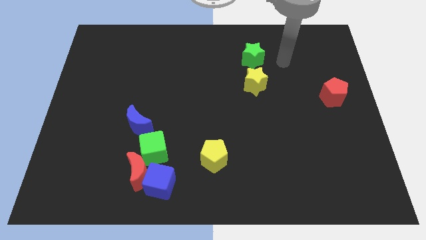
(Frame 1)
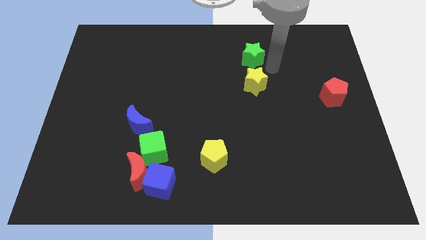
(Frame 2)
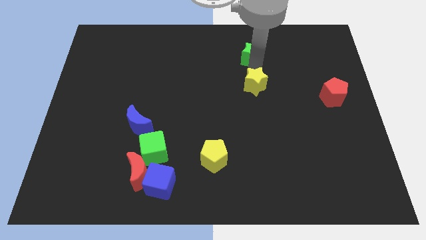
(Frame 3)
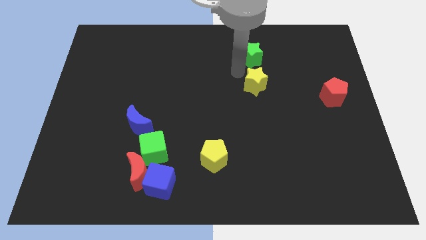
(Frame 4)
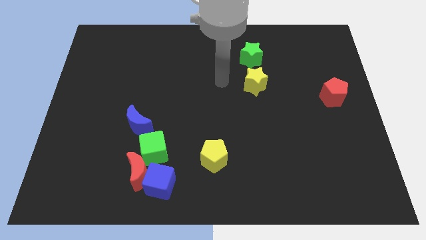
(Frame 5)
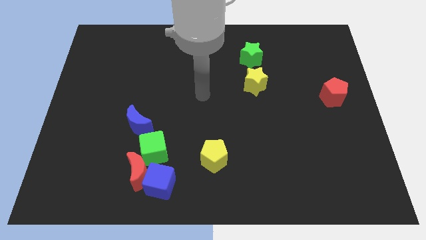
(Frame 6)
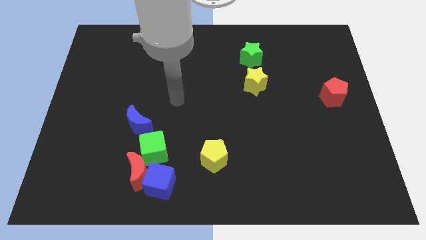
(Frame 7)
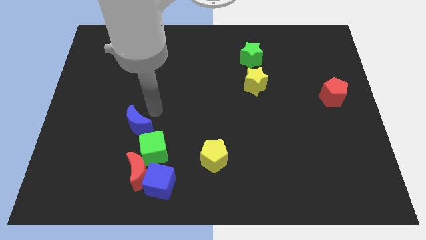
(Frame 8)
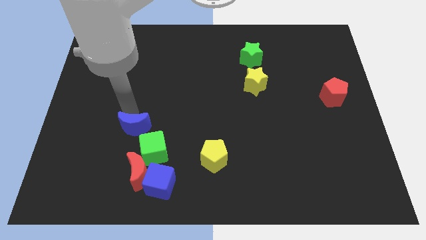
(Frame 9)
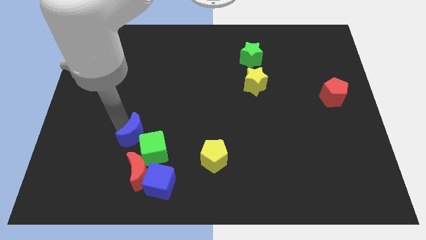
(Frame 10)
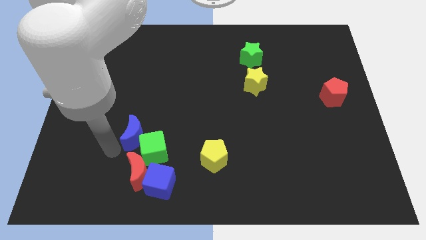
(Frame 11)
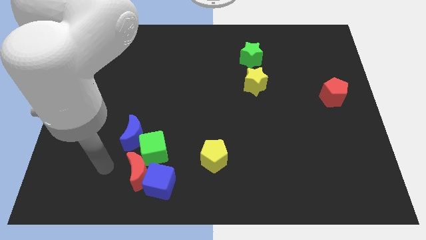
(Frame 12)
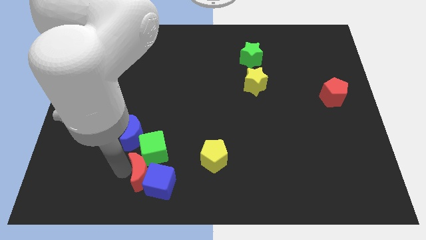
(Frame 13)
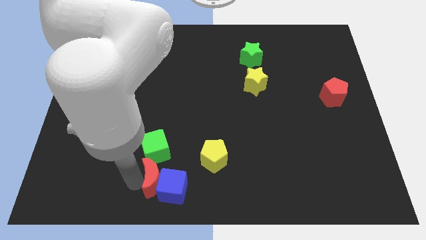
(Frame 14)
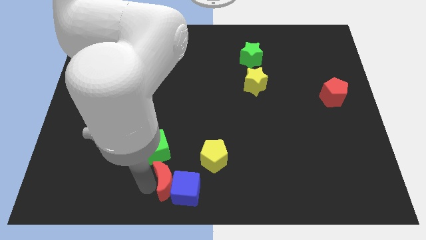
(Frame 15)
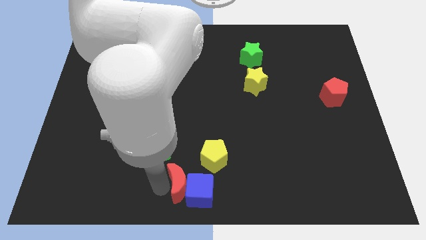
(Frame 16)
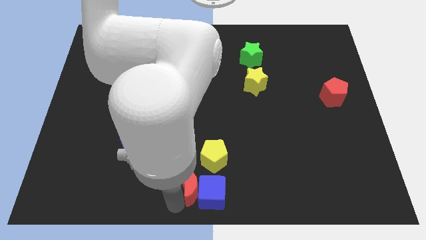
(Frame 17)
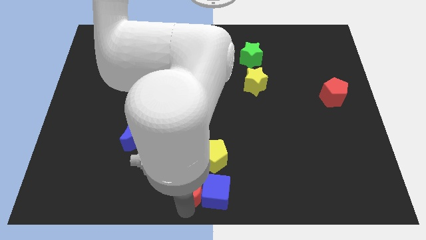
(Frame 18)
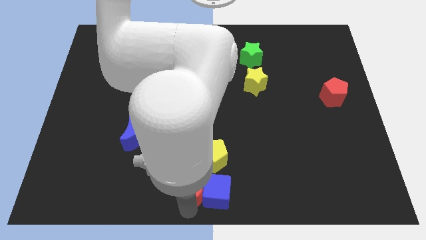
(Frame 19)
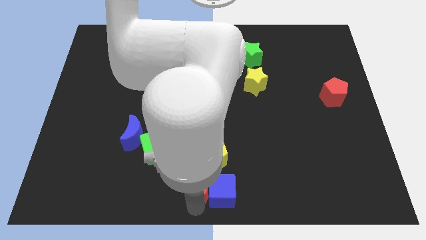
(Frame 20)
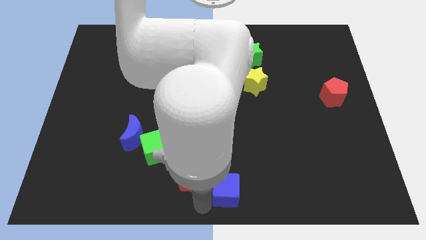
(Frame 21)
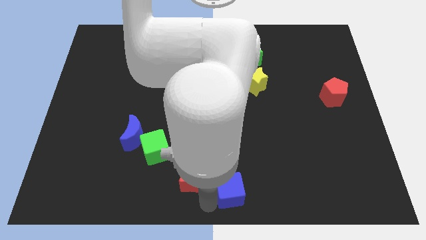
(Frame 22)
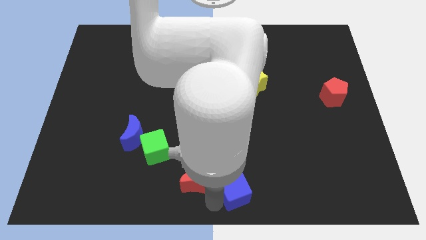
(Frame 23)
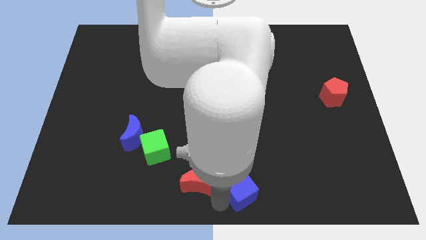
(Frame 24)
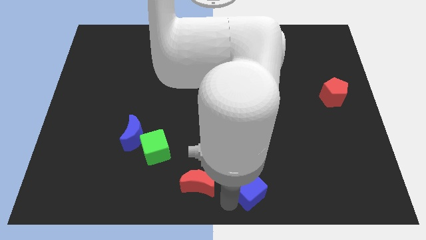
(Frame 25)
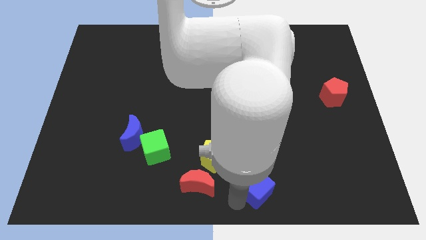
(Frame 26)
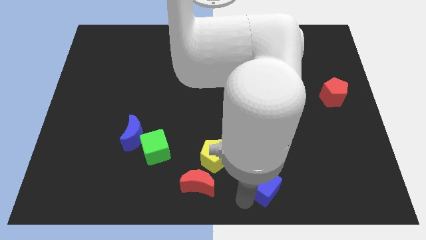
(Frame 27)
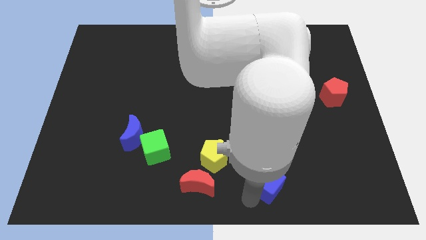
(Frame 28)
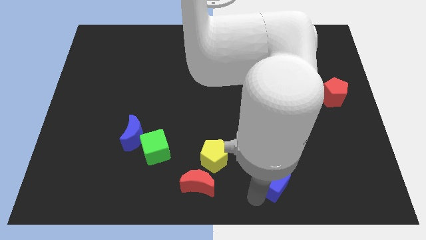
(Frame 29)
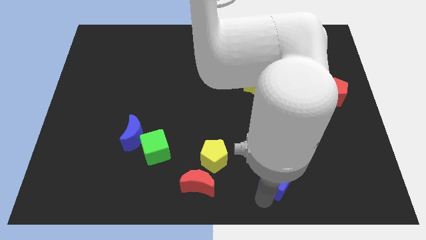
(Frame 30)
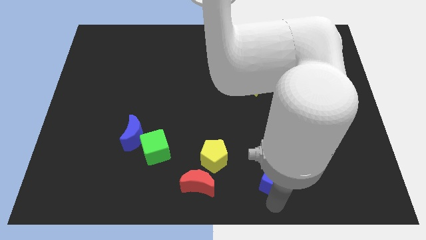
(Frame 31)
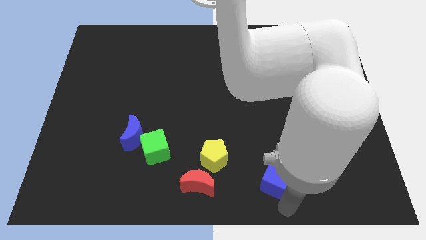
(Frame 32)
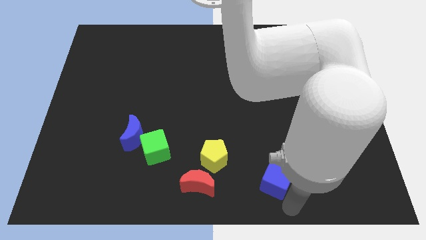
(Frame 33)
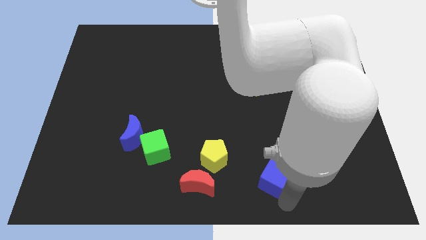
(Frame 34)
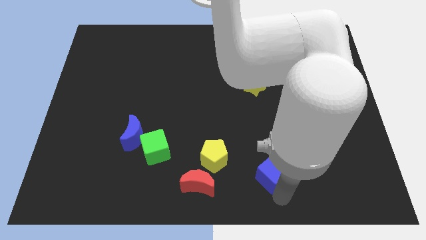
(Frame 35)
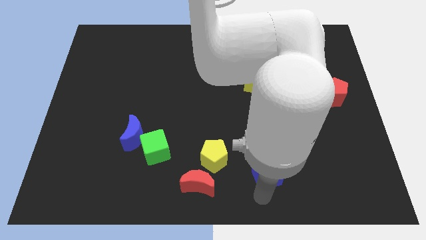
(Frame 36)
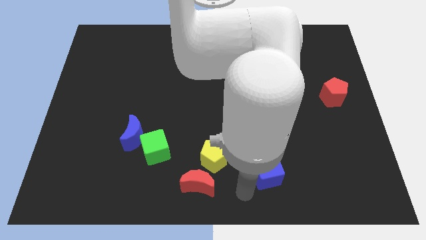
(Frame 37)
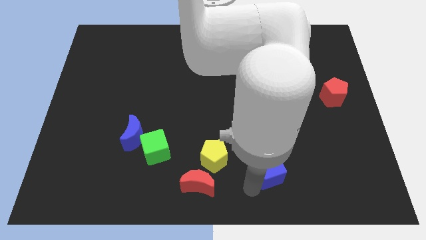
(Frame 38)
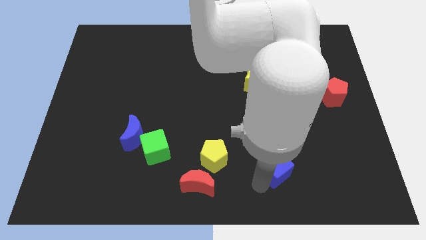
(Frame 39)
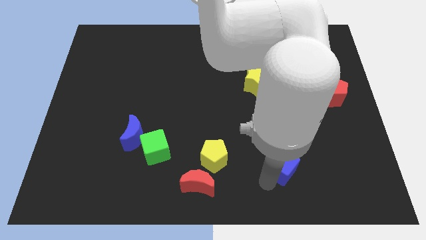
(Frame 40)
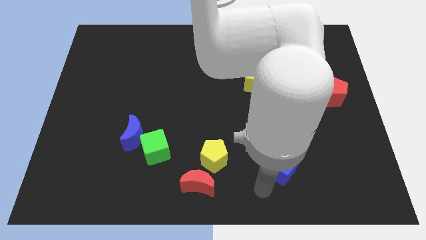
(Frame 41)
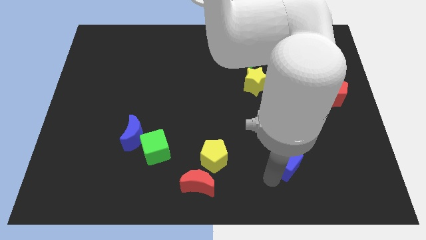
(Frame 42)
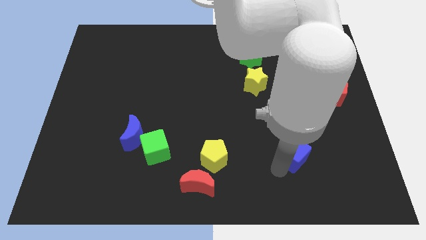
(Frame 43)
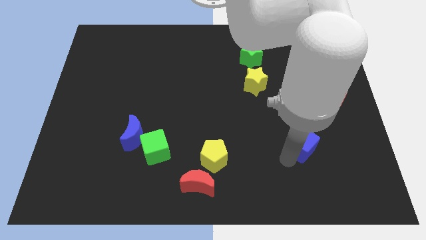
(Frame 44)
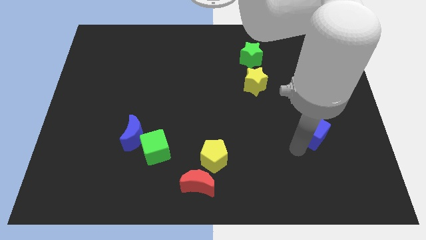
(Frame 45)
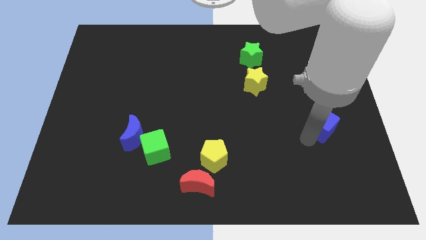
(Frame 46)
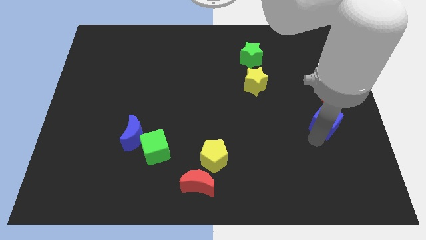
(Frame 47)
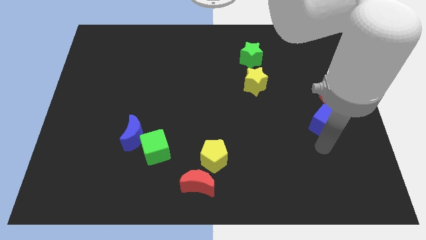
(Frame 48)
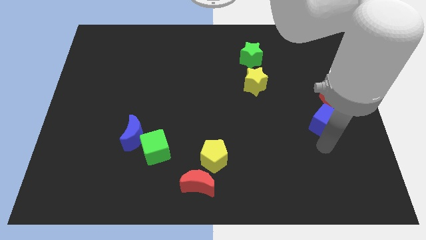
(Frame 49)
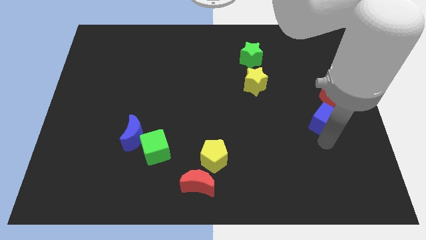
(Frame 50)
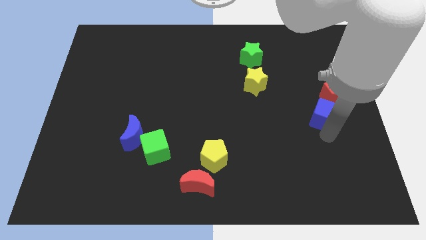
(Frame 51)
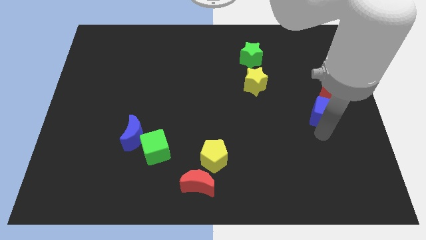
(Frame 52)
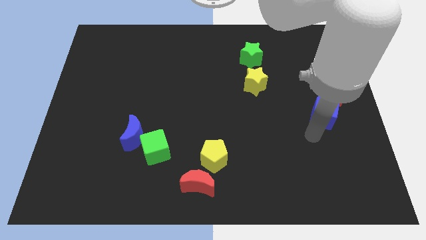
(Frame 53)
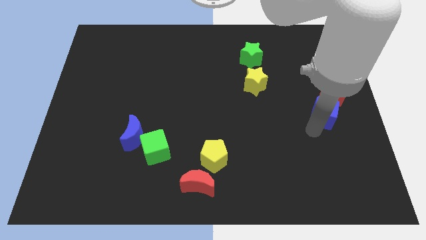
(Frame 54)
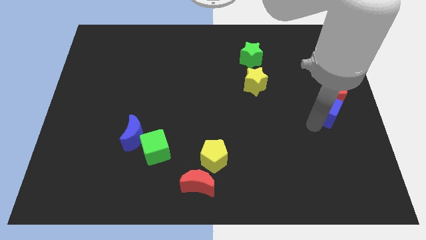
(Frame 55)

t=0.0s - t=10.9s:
push the blue cube towards the red pentagon

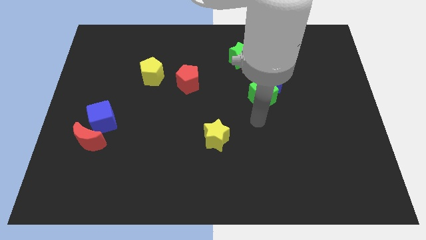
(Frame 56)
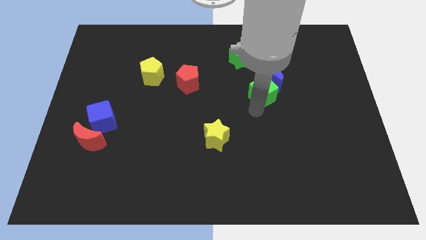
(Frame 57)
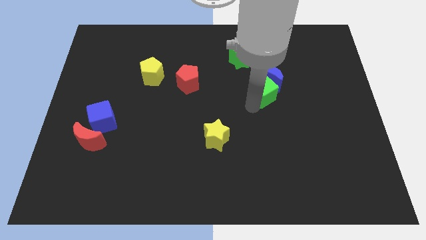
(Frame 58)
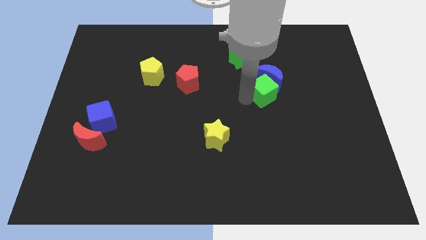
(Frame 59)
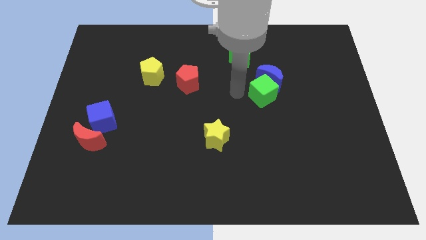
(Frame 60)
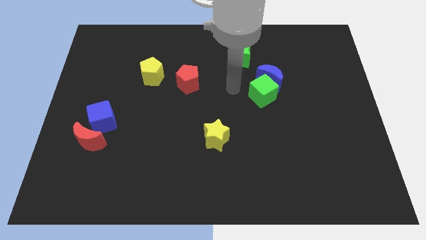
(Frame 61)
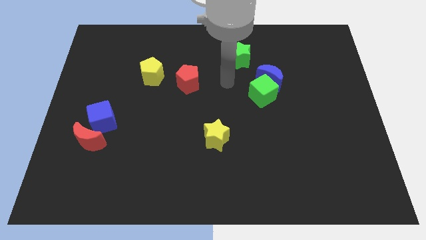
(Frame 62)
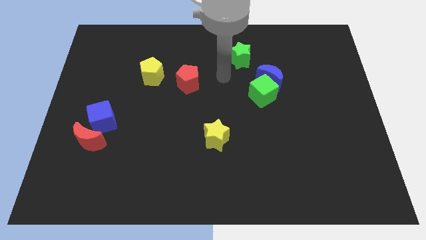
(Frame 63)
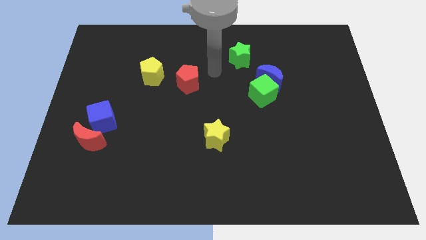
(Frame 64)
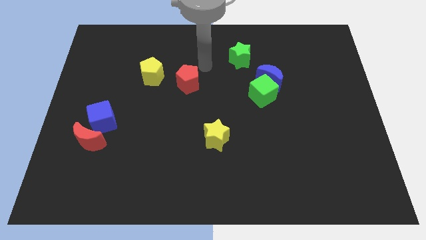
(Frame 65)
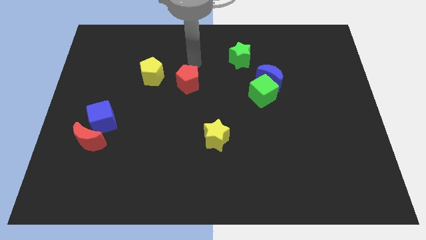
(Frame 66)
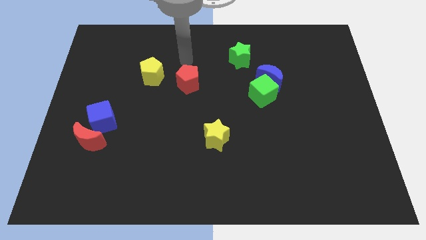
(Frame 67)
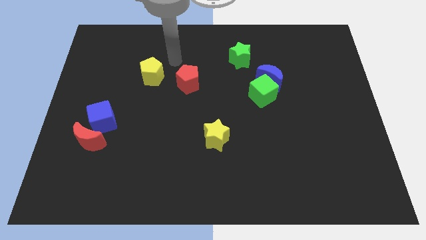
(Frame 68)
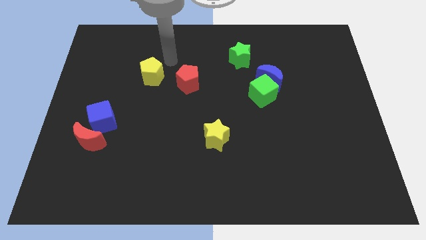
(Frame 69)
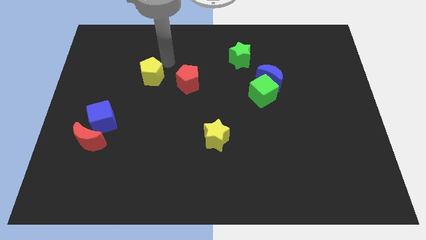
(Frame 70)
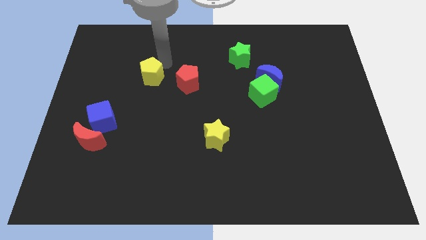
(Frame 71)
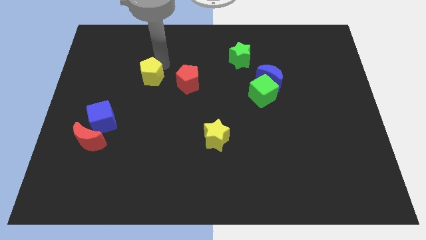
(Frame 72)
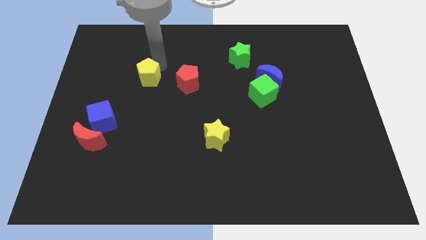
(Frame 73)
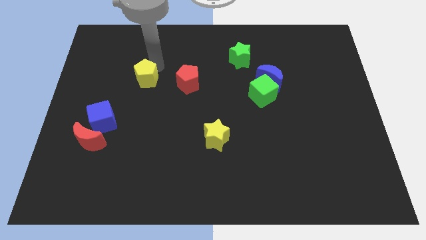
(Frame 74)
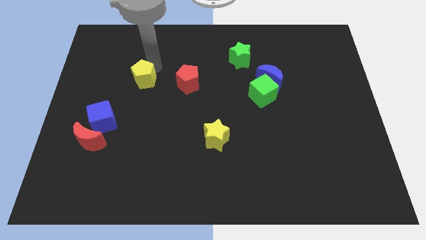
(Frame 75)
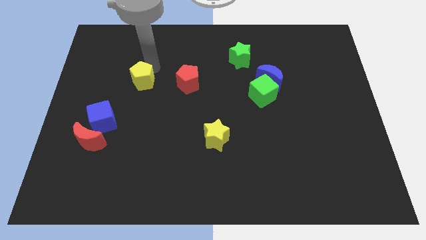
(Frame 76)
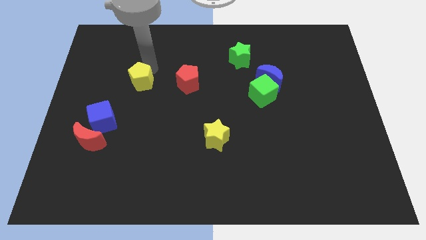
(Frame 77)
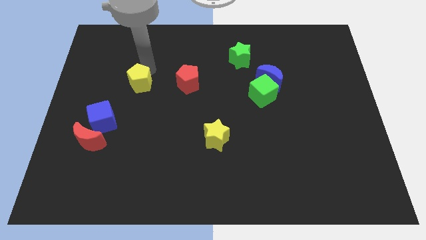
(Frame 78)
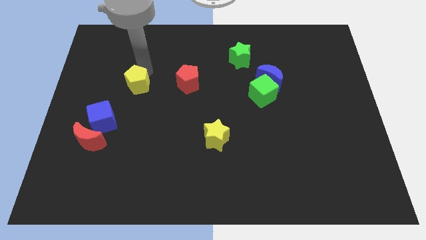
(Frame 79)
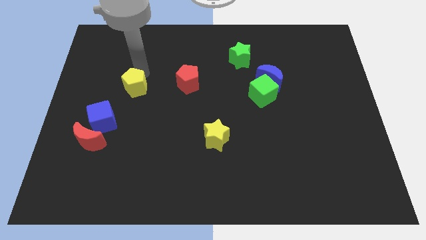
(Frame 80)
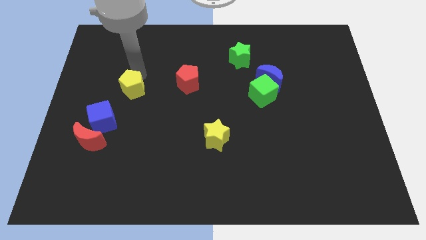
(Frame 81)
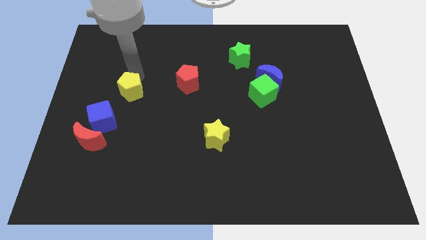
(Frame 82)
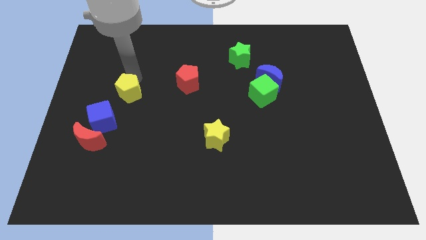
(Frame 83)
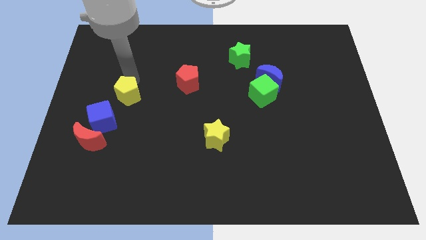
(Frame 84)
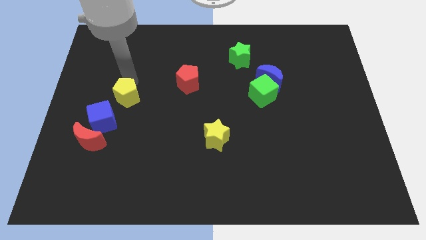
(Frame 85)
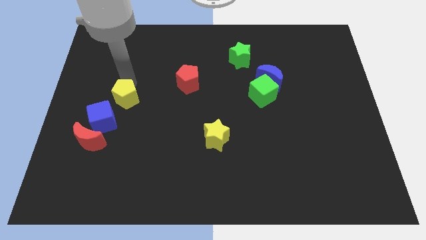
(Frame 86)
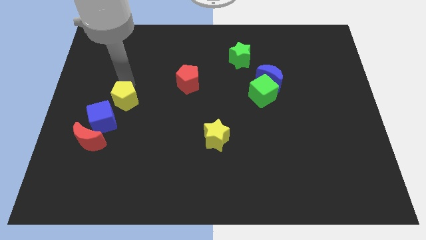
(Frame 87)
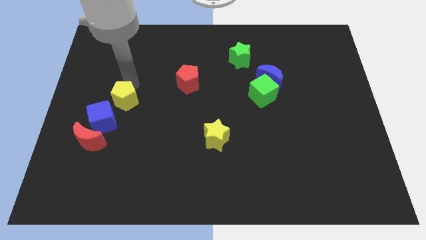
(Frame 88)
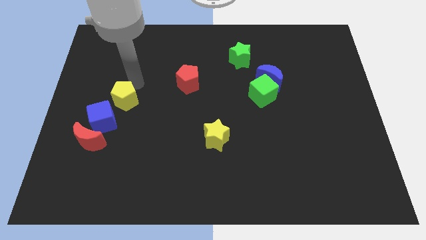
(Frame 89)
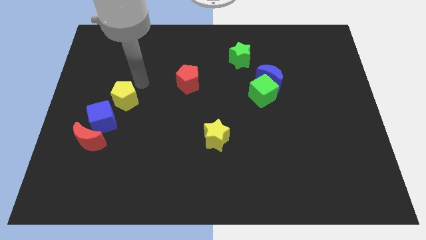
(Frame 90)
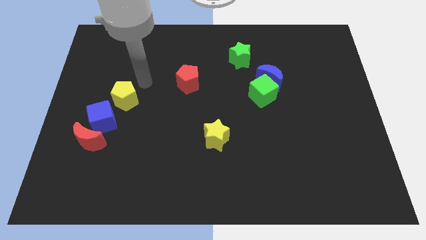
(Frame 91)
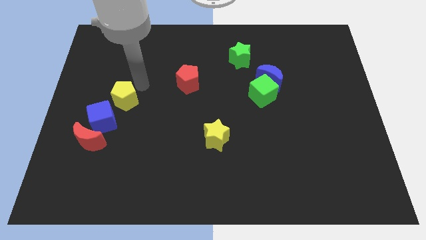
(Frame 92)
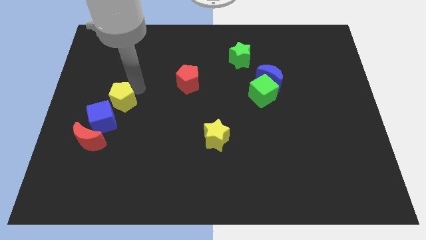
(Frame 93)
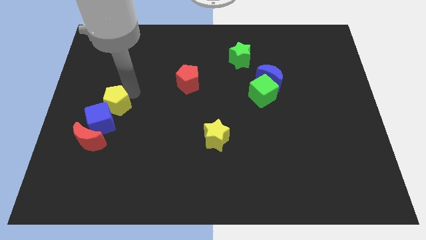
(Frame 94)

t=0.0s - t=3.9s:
push the yellow pentagon next to the blue cube
